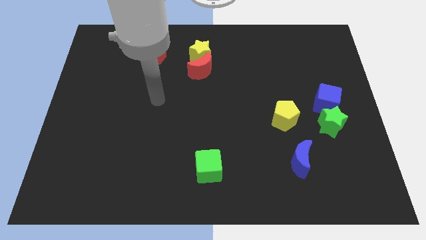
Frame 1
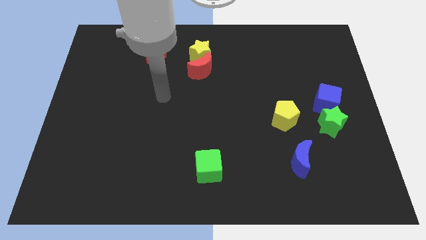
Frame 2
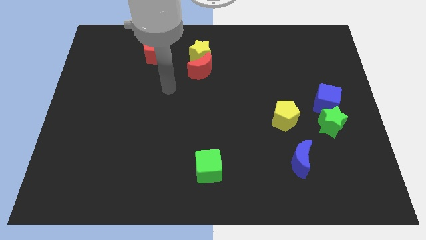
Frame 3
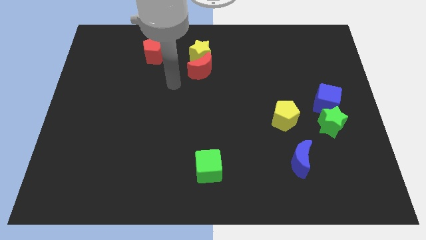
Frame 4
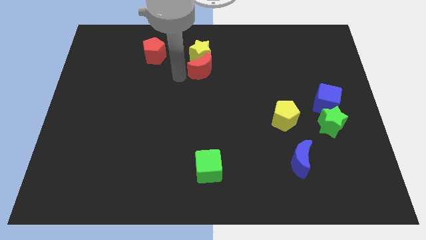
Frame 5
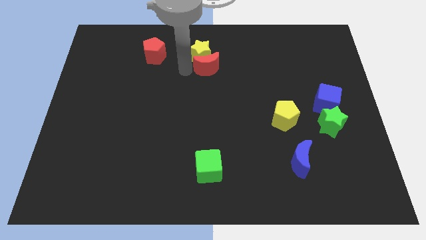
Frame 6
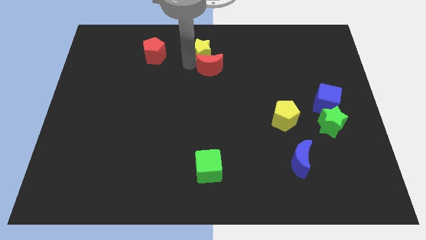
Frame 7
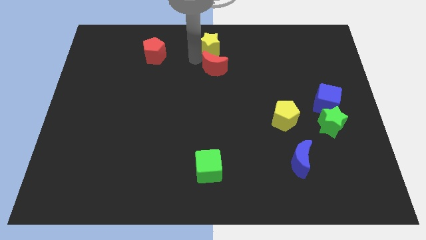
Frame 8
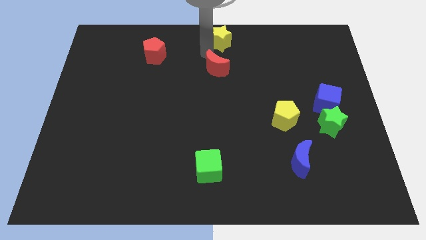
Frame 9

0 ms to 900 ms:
separate the red moon from the yellow star

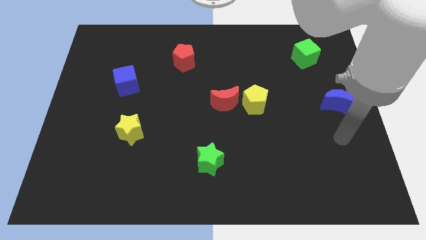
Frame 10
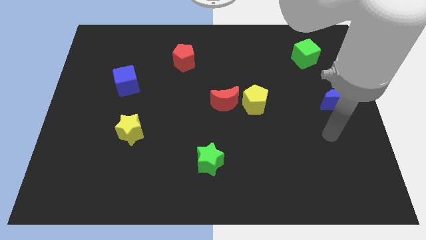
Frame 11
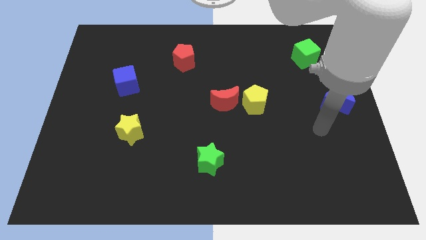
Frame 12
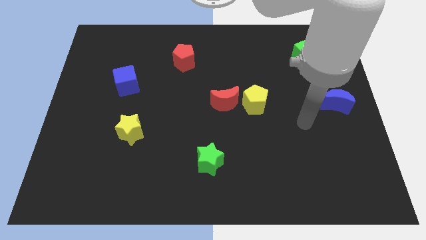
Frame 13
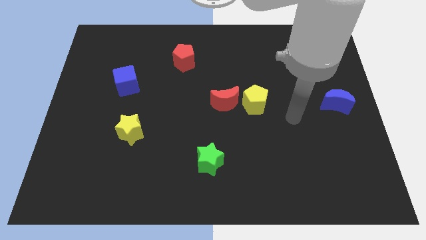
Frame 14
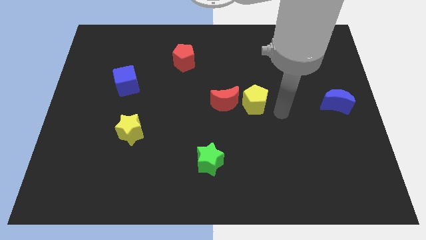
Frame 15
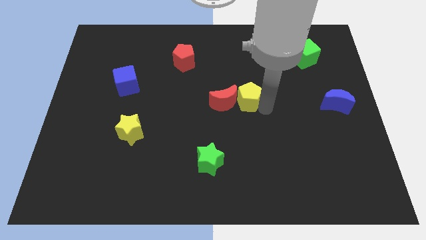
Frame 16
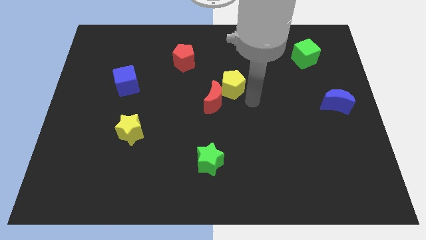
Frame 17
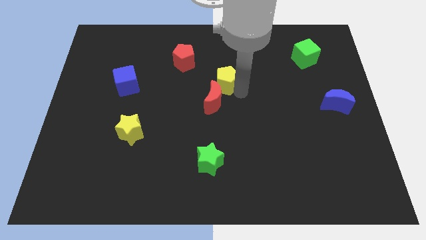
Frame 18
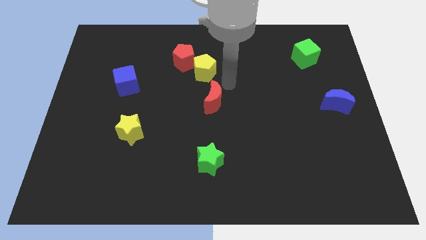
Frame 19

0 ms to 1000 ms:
separate the red moon from the yellow pentagon

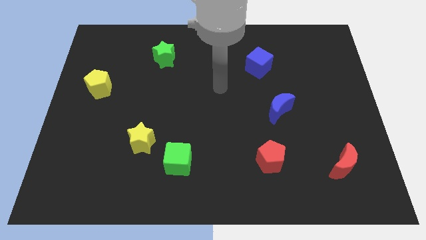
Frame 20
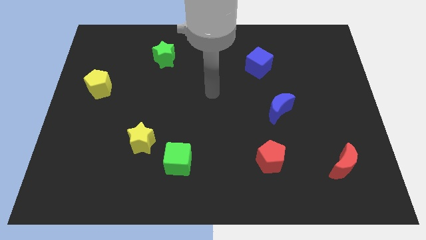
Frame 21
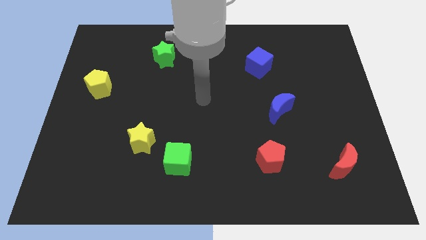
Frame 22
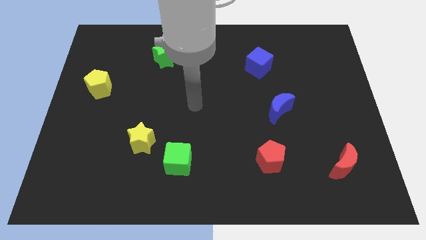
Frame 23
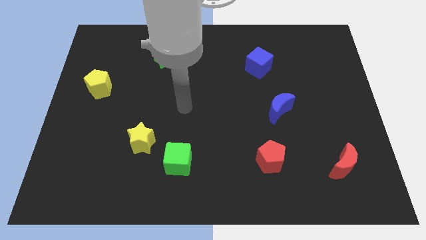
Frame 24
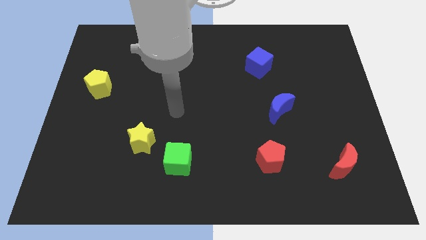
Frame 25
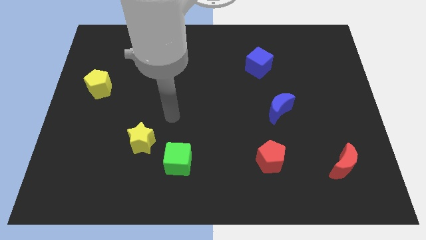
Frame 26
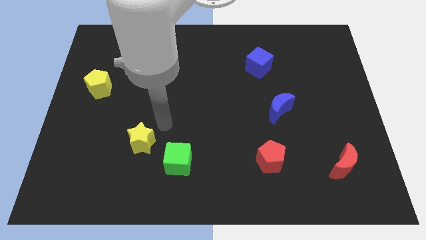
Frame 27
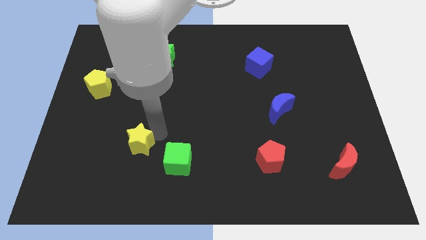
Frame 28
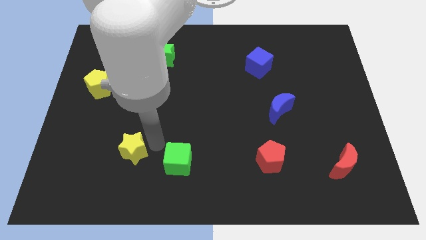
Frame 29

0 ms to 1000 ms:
separate the green cube from the yellow star

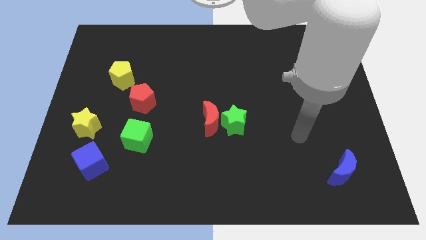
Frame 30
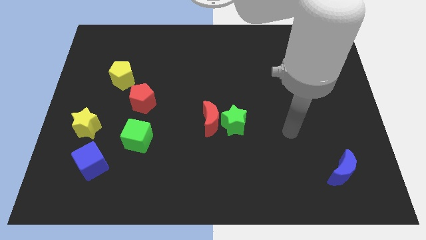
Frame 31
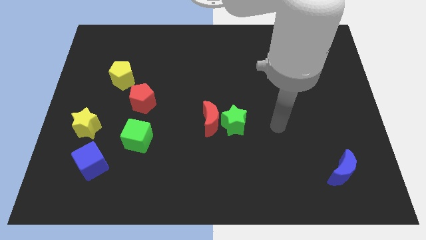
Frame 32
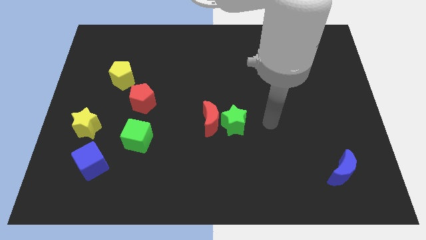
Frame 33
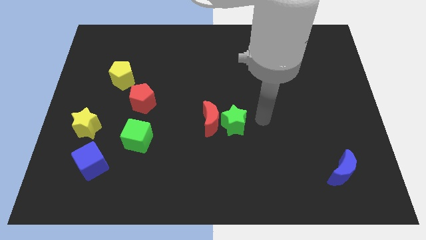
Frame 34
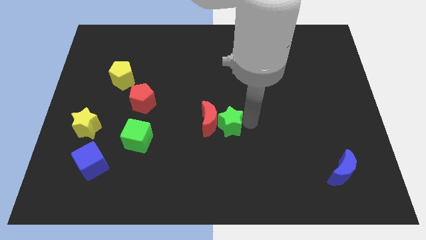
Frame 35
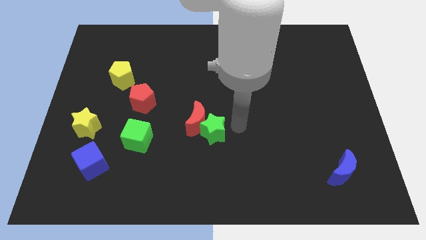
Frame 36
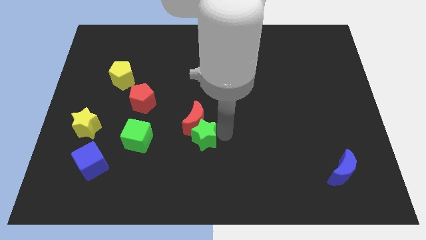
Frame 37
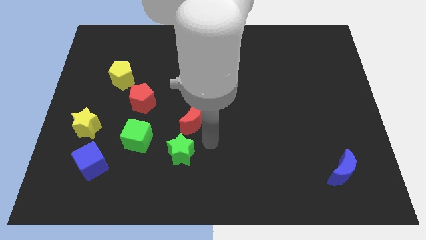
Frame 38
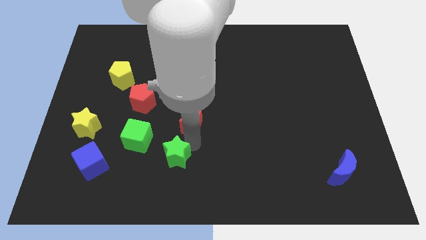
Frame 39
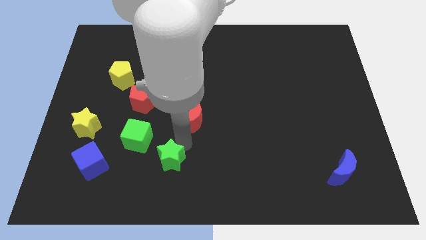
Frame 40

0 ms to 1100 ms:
move the red moon away from the green star

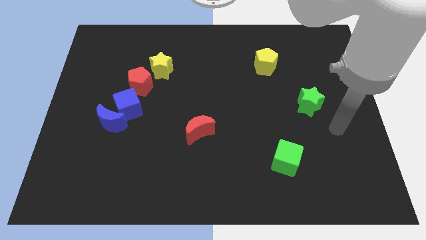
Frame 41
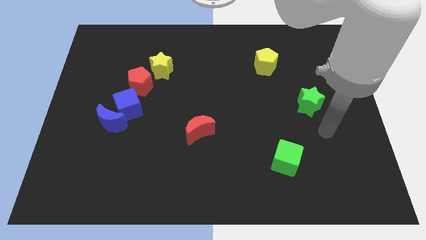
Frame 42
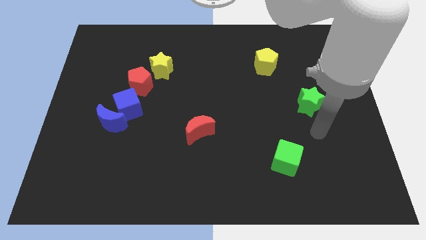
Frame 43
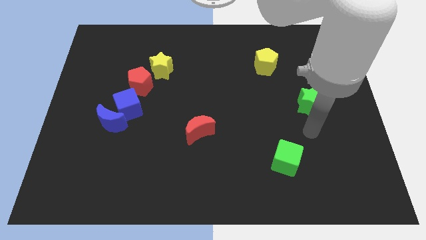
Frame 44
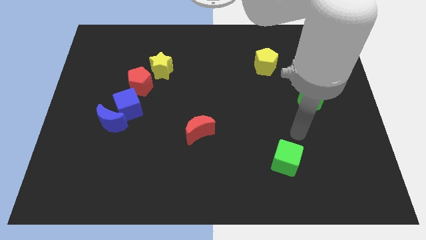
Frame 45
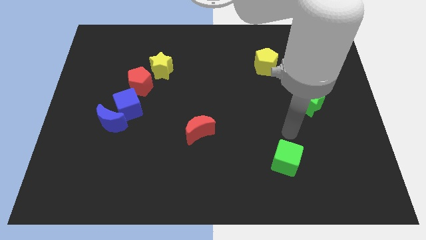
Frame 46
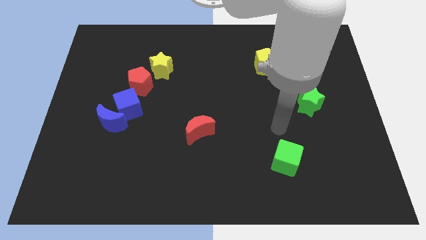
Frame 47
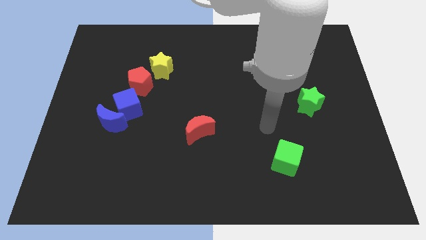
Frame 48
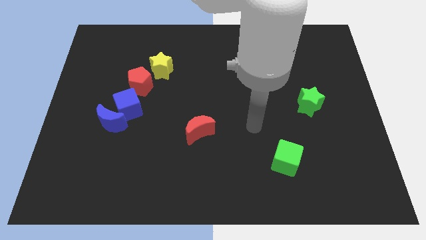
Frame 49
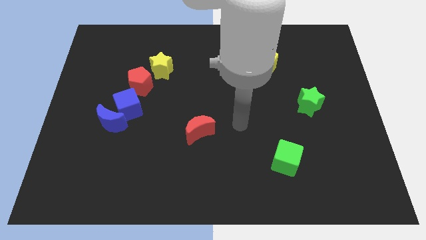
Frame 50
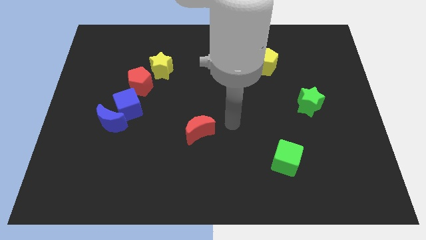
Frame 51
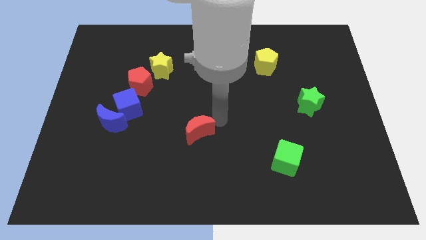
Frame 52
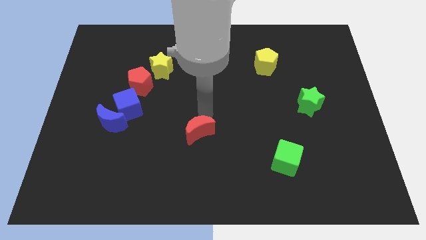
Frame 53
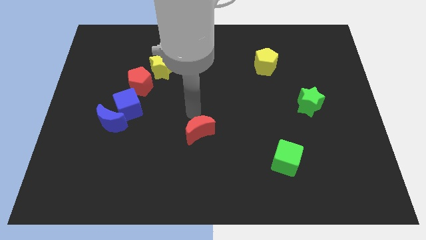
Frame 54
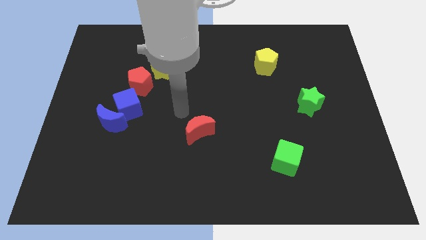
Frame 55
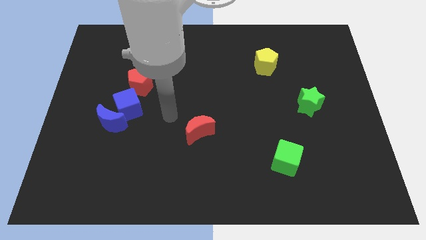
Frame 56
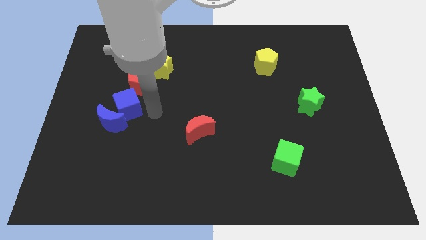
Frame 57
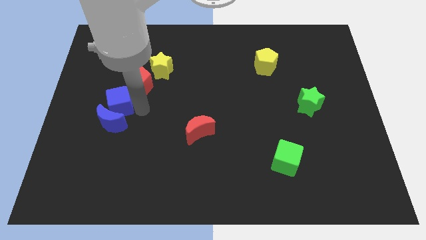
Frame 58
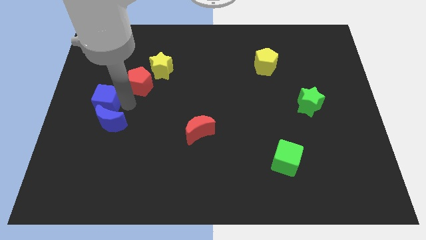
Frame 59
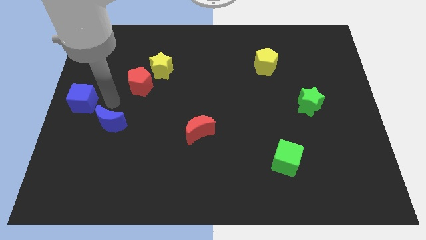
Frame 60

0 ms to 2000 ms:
separate the blue moon from the blue cube

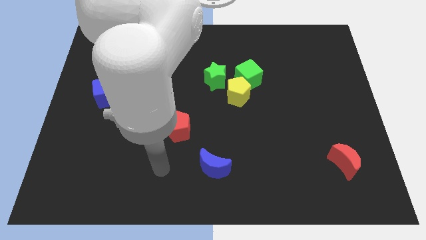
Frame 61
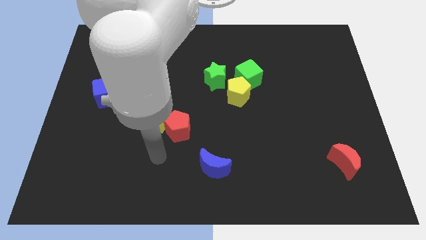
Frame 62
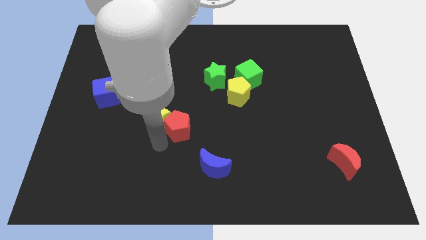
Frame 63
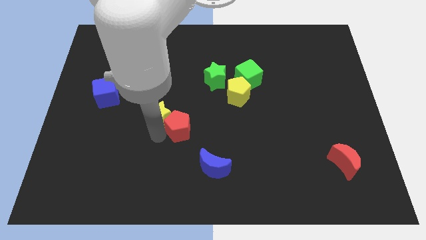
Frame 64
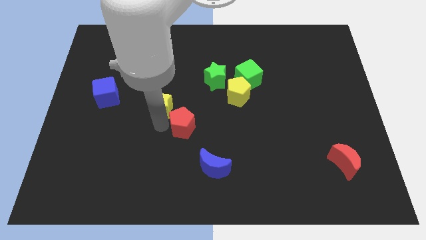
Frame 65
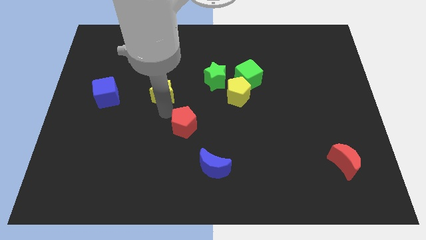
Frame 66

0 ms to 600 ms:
separate the red pentagon from the yellow star

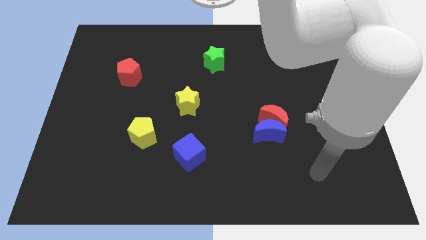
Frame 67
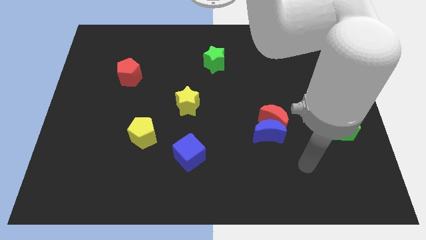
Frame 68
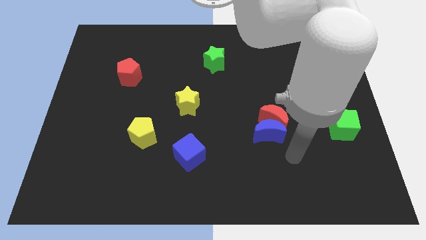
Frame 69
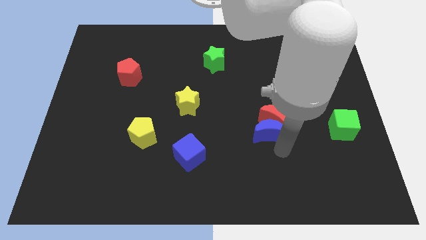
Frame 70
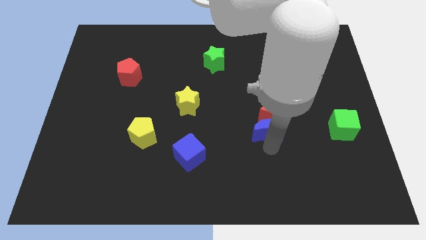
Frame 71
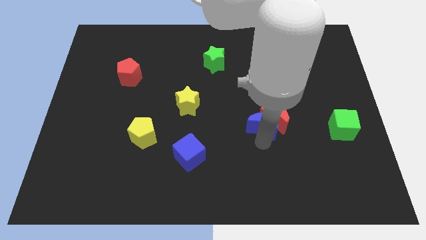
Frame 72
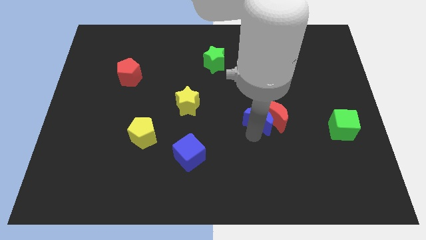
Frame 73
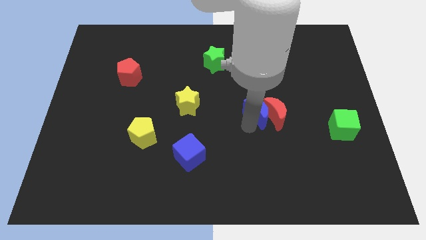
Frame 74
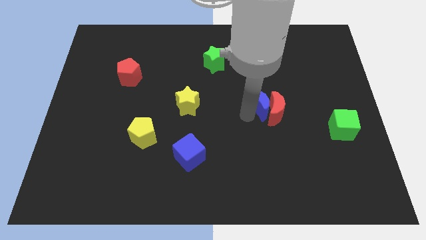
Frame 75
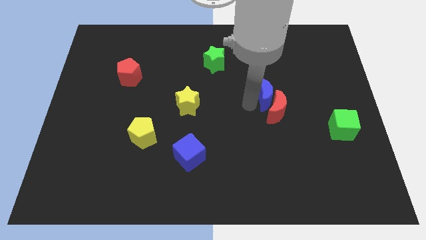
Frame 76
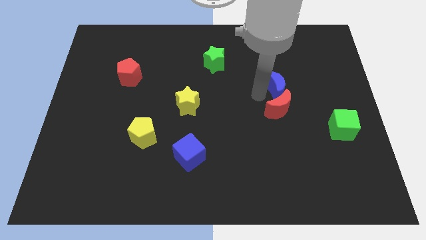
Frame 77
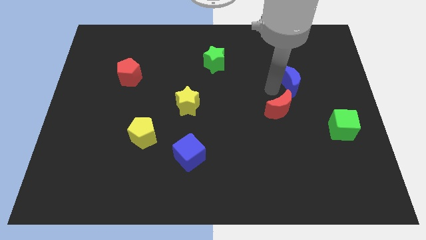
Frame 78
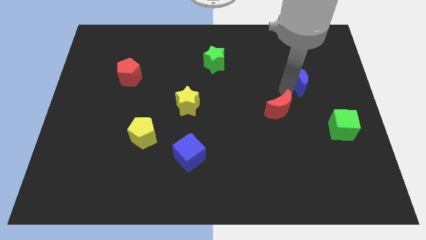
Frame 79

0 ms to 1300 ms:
separate the red moon from the blue moon

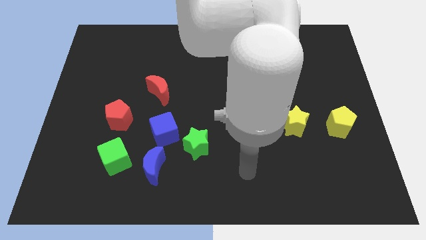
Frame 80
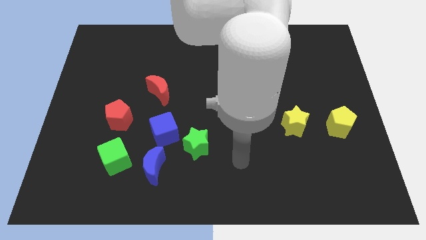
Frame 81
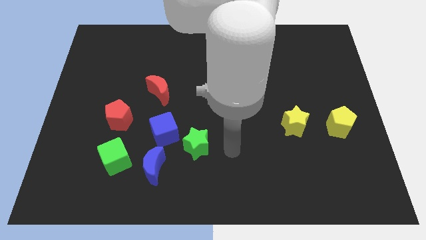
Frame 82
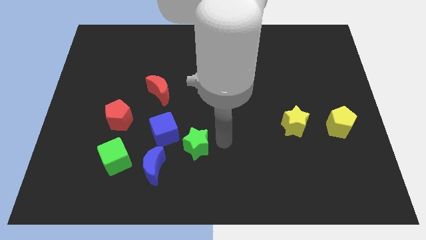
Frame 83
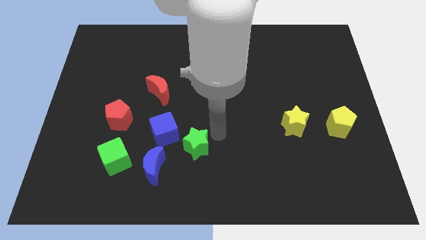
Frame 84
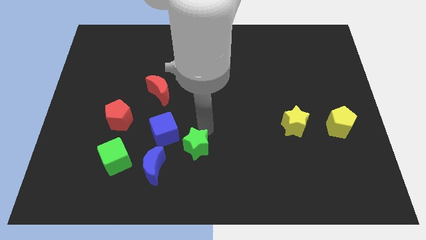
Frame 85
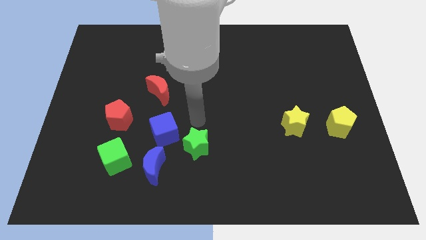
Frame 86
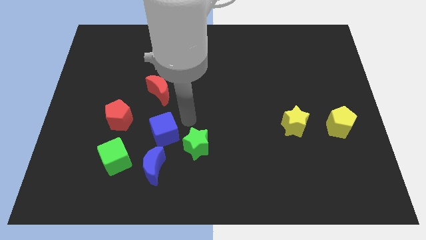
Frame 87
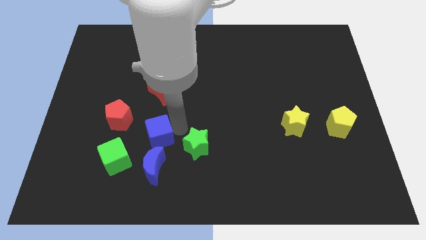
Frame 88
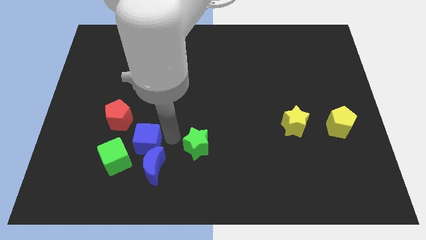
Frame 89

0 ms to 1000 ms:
move the green star away from the blue cube

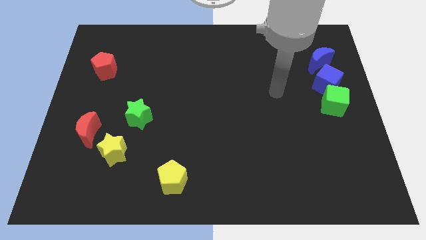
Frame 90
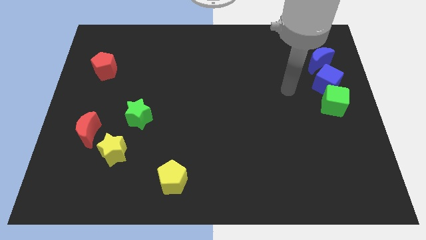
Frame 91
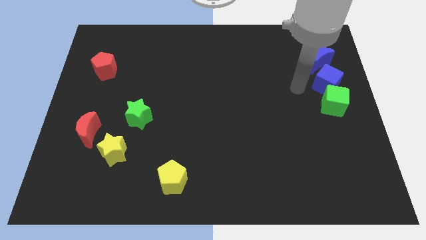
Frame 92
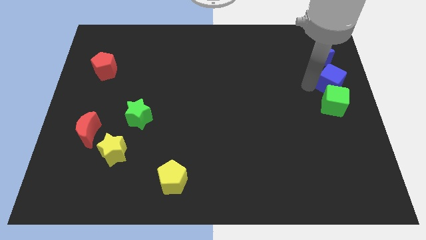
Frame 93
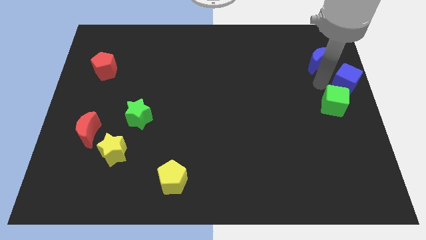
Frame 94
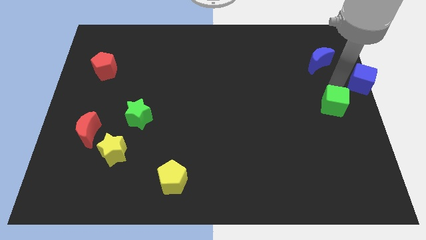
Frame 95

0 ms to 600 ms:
move the green cube away from the blue cube
